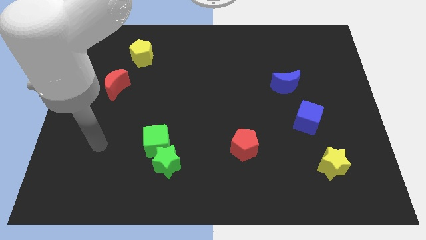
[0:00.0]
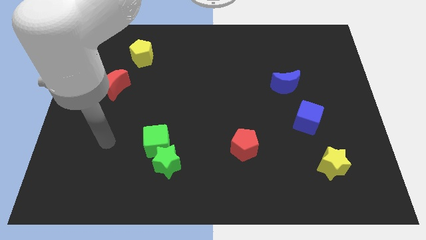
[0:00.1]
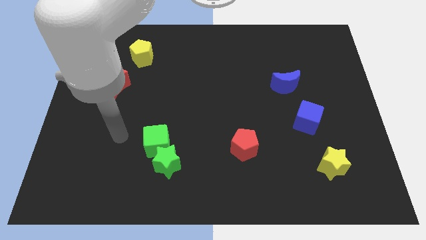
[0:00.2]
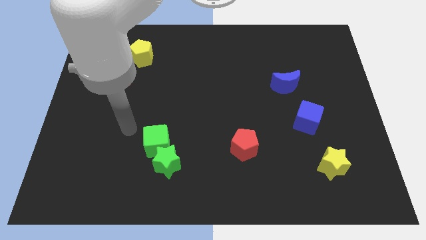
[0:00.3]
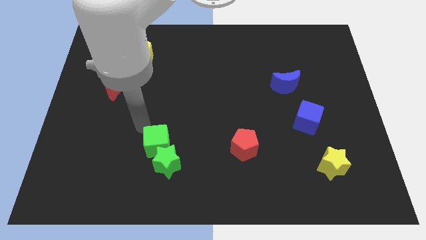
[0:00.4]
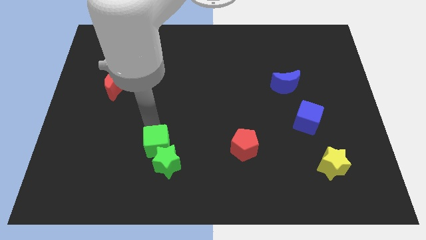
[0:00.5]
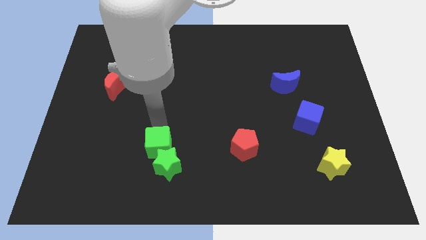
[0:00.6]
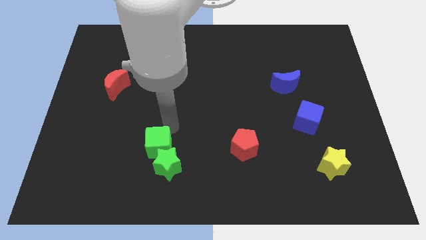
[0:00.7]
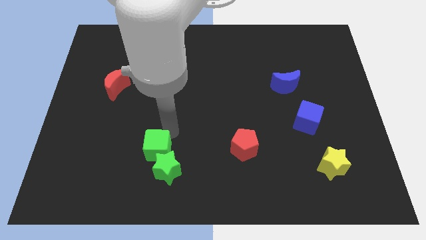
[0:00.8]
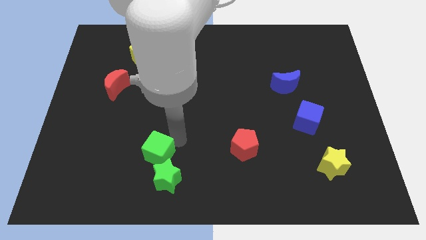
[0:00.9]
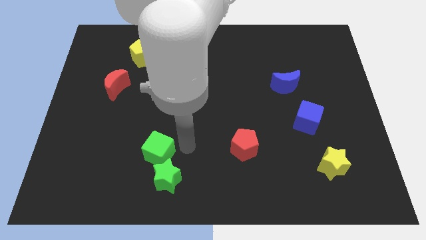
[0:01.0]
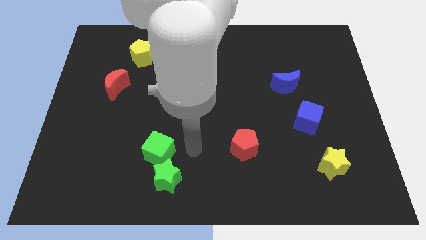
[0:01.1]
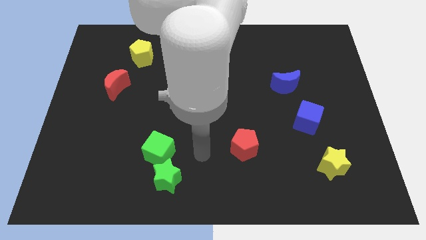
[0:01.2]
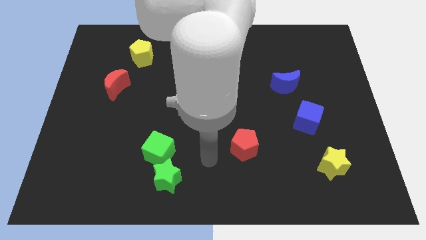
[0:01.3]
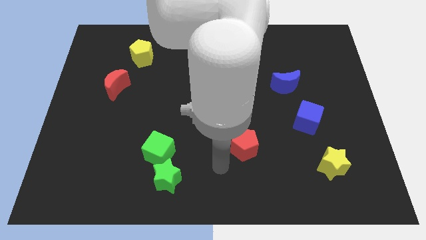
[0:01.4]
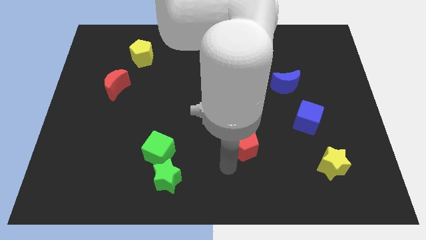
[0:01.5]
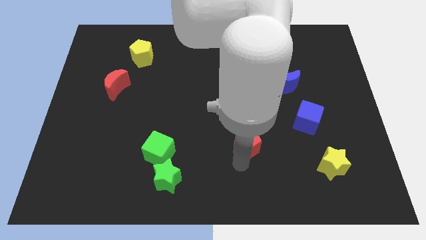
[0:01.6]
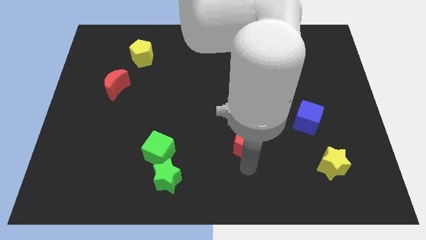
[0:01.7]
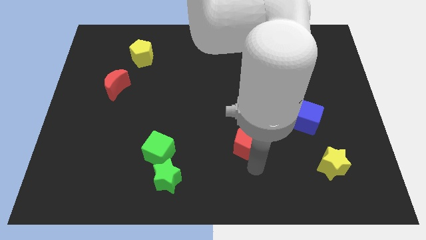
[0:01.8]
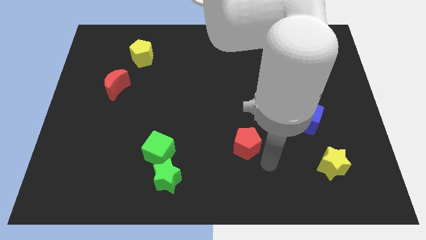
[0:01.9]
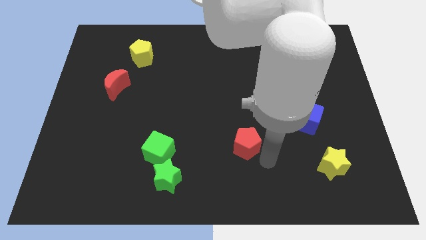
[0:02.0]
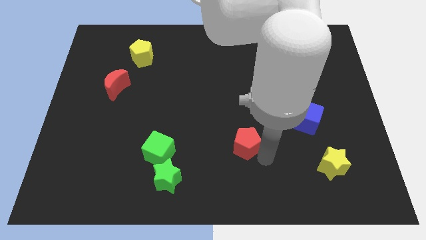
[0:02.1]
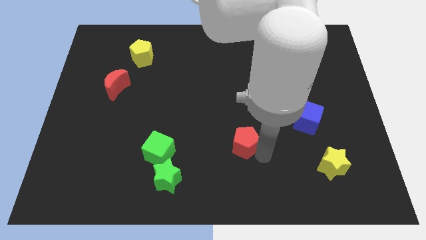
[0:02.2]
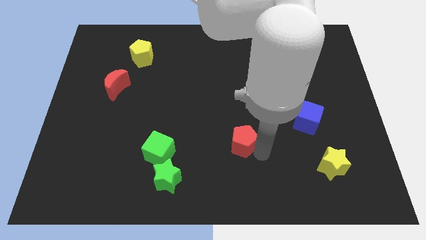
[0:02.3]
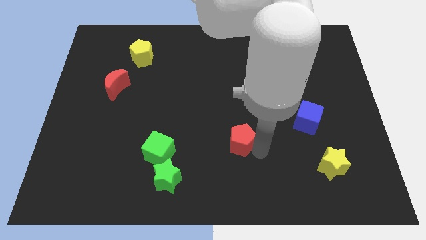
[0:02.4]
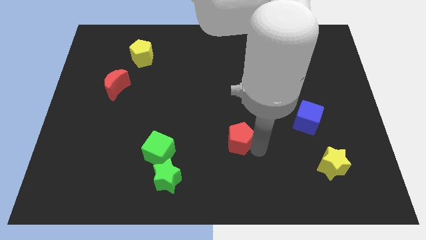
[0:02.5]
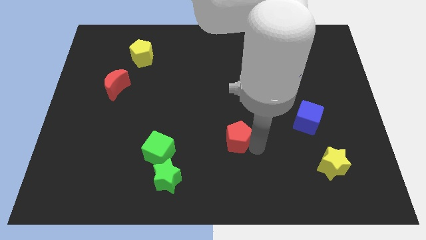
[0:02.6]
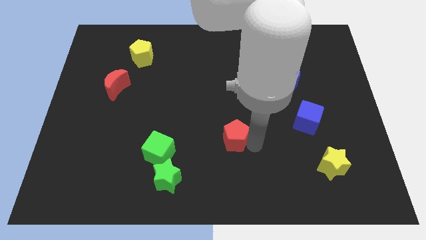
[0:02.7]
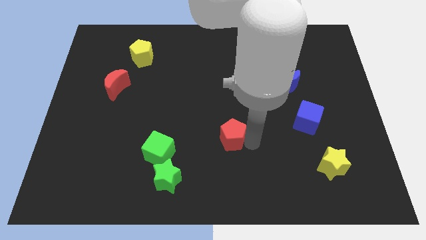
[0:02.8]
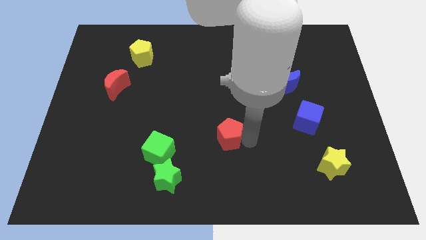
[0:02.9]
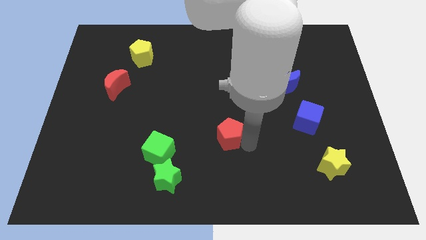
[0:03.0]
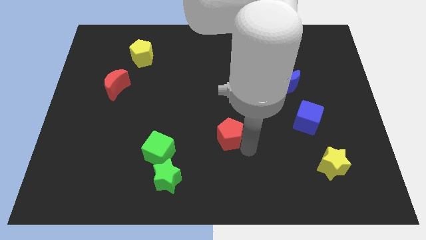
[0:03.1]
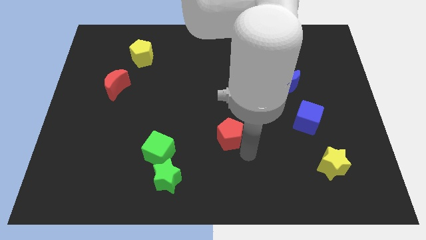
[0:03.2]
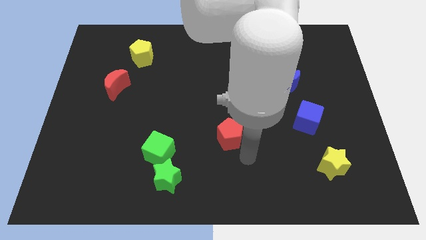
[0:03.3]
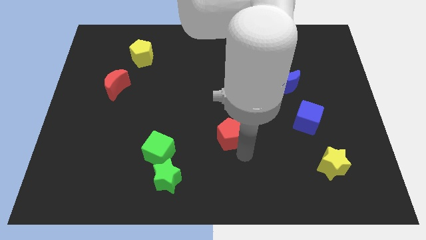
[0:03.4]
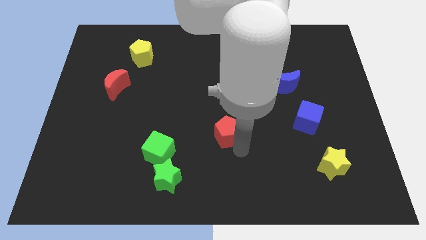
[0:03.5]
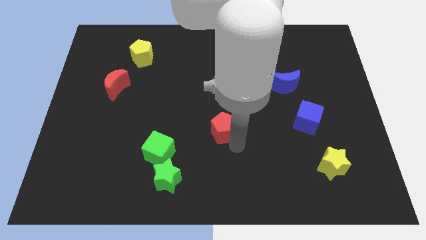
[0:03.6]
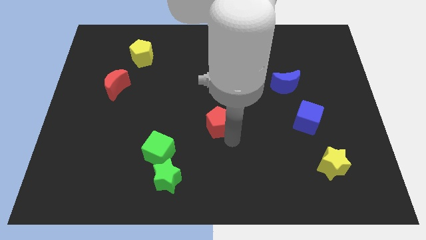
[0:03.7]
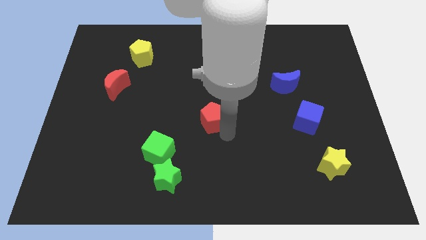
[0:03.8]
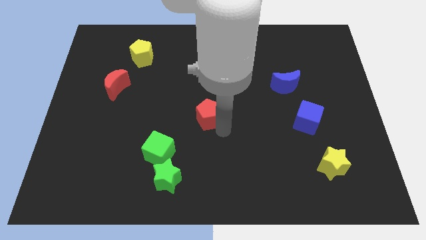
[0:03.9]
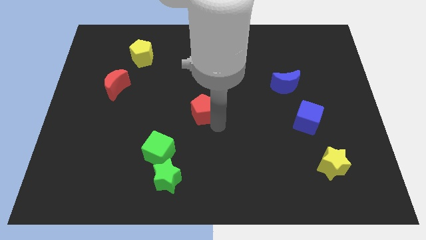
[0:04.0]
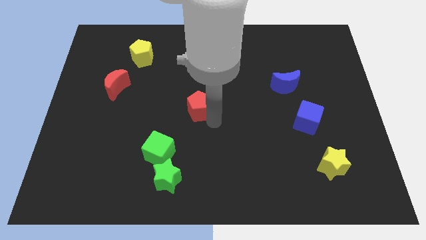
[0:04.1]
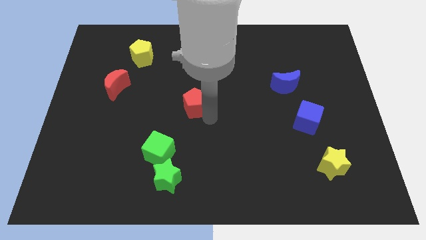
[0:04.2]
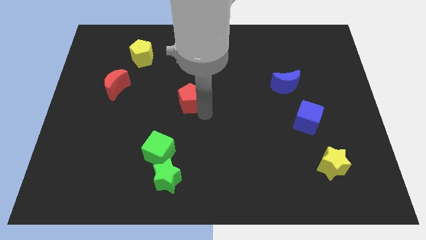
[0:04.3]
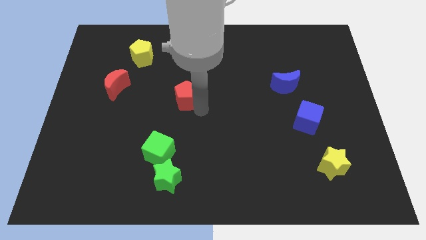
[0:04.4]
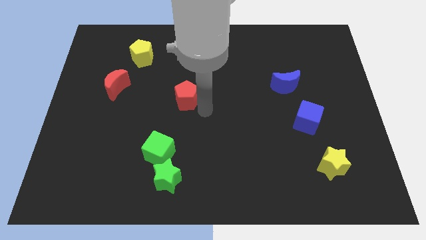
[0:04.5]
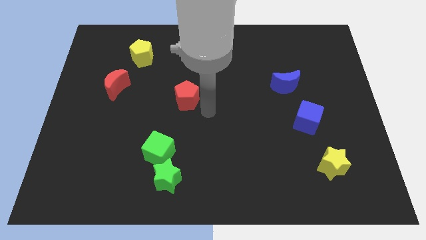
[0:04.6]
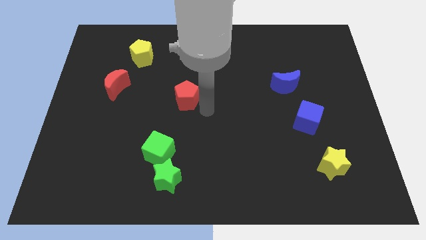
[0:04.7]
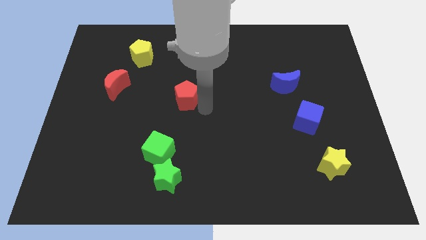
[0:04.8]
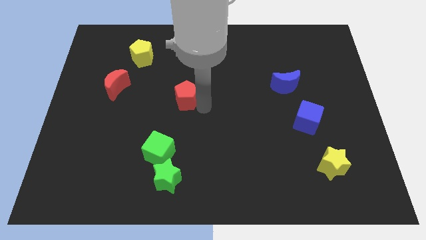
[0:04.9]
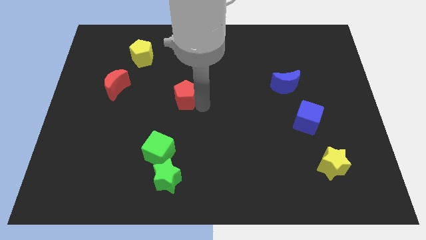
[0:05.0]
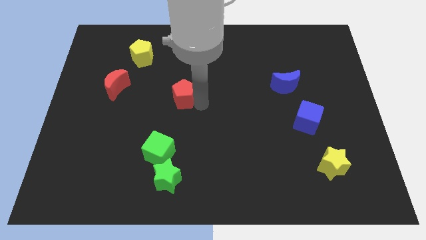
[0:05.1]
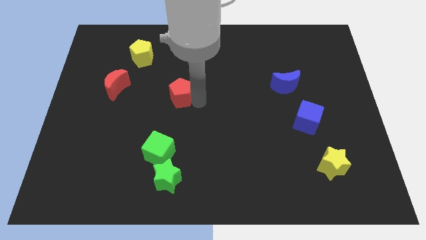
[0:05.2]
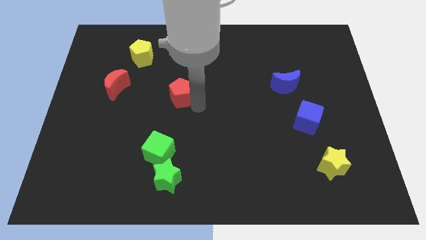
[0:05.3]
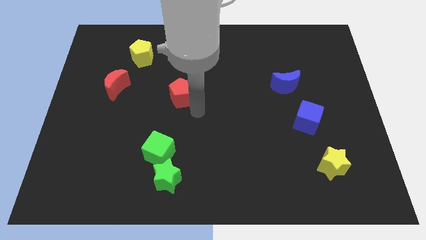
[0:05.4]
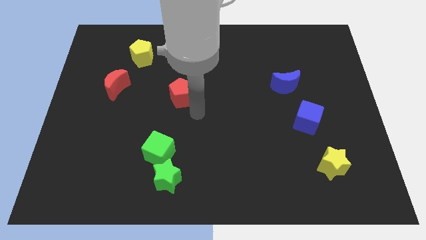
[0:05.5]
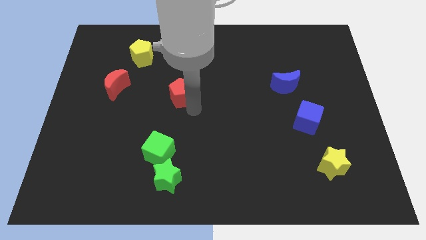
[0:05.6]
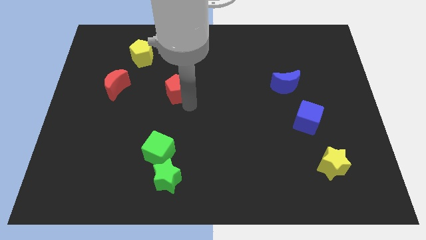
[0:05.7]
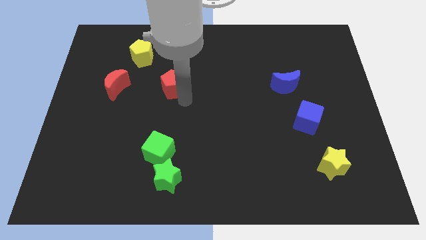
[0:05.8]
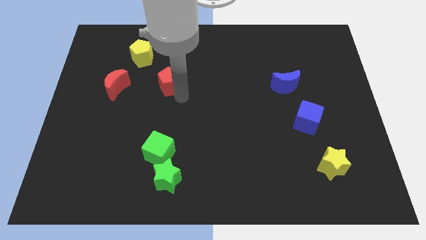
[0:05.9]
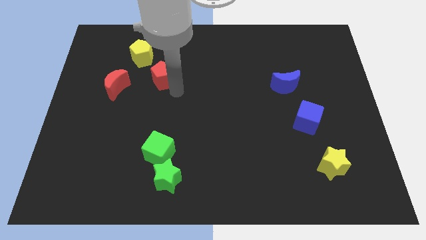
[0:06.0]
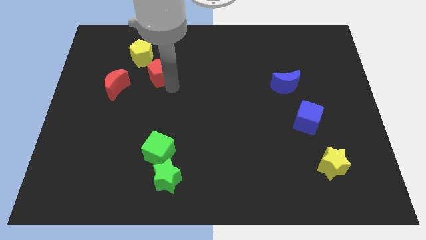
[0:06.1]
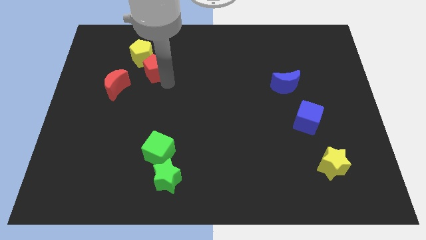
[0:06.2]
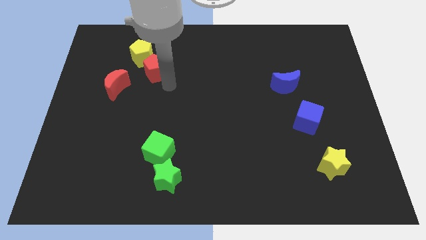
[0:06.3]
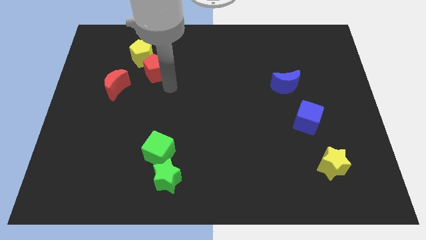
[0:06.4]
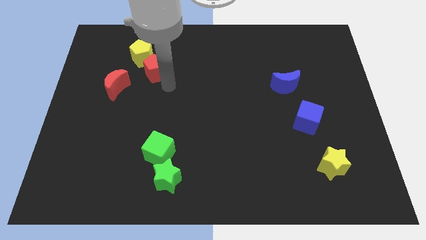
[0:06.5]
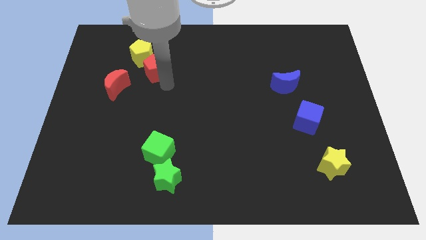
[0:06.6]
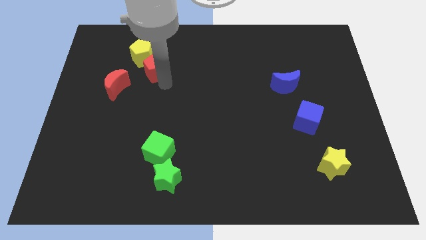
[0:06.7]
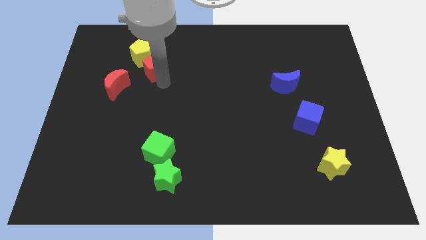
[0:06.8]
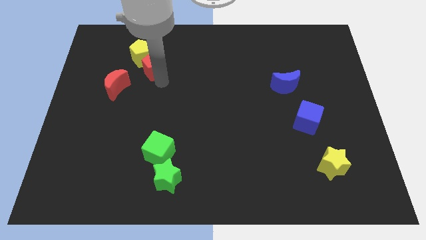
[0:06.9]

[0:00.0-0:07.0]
put the red pentagon next to the yellow pentagon
